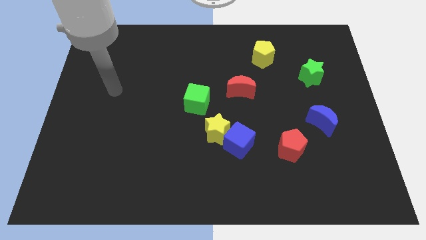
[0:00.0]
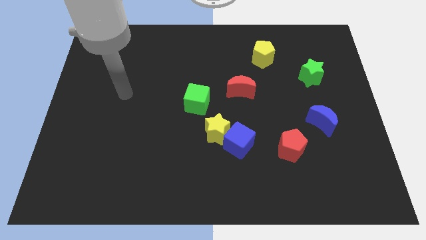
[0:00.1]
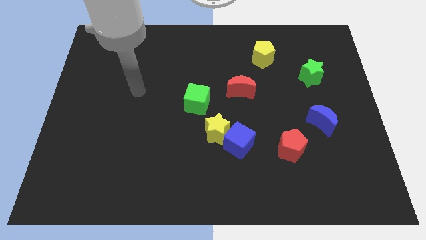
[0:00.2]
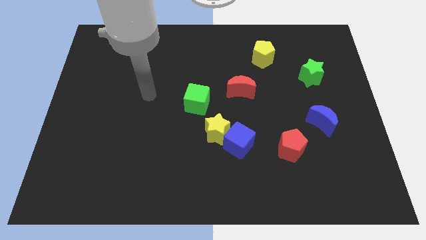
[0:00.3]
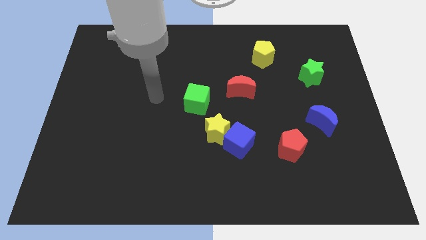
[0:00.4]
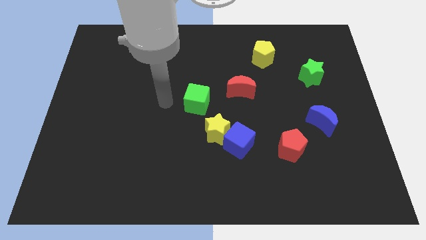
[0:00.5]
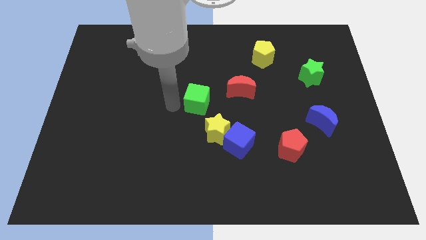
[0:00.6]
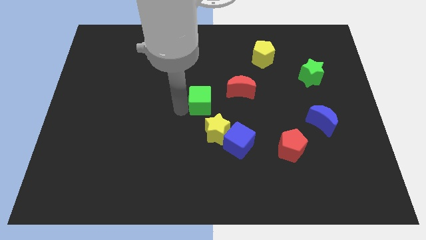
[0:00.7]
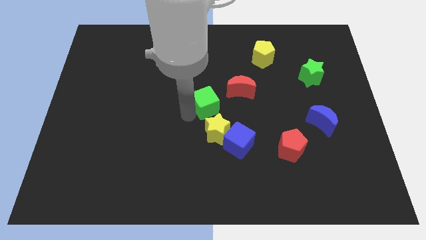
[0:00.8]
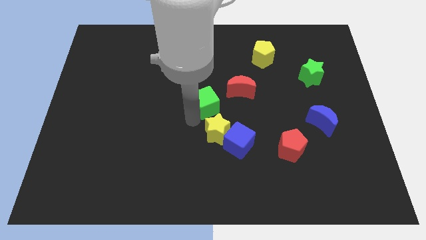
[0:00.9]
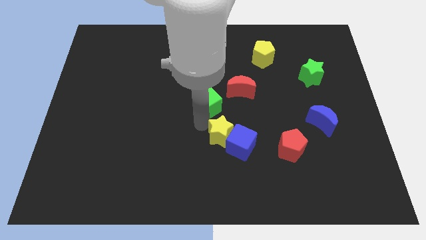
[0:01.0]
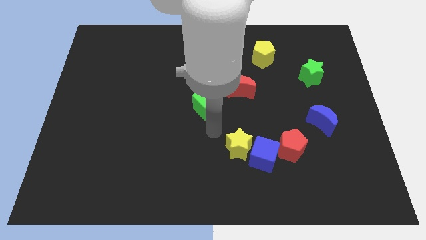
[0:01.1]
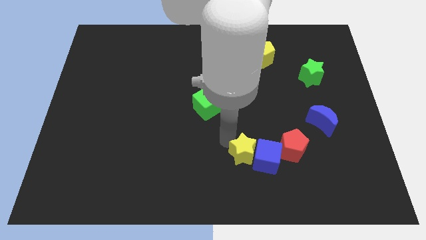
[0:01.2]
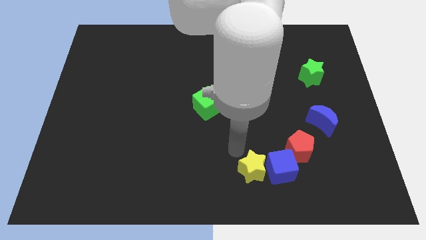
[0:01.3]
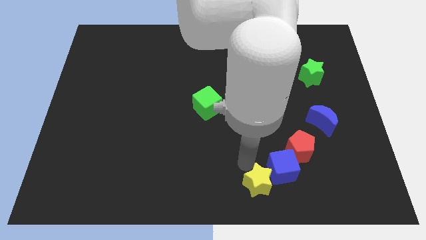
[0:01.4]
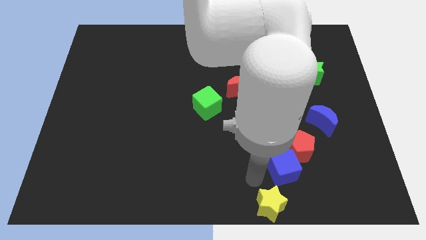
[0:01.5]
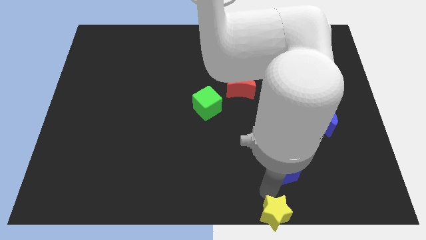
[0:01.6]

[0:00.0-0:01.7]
pull the blue cube apart from the yellow star

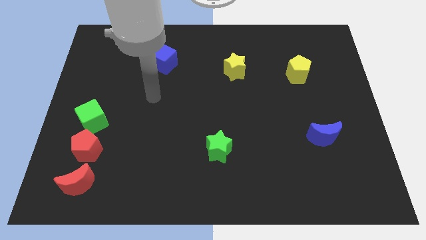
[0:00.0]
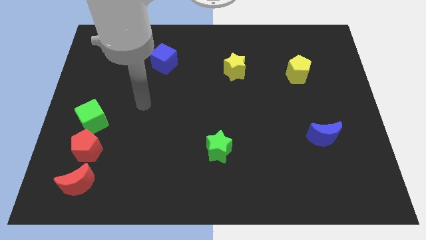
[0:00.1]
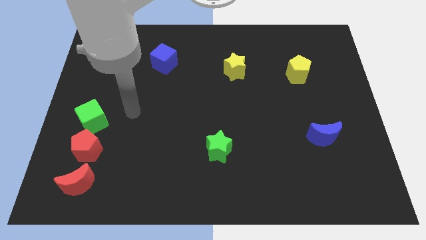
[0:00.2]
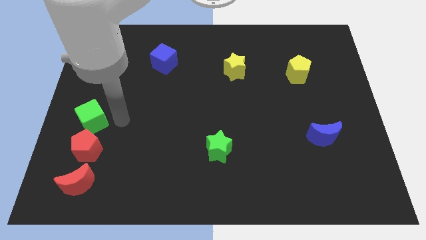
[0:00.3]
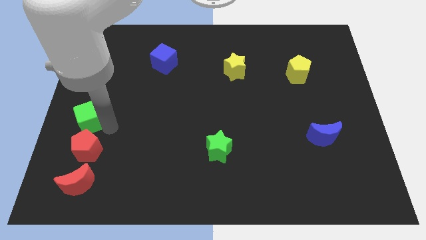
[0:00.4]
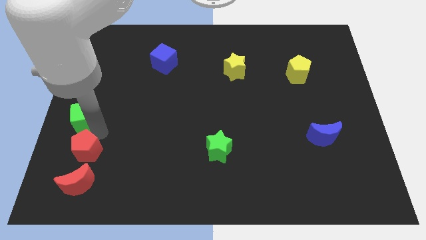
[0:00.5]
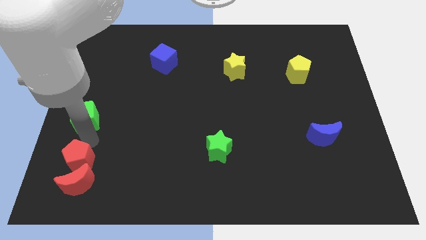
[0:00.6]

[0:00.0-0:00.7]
pull the green cube apart from the red pentagon

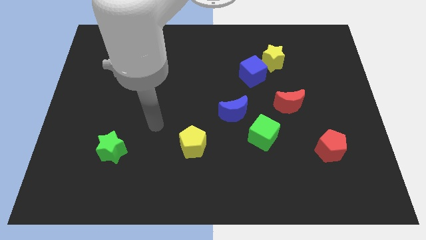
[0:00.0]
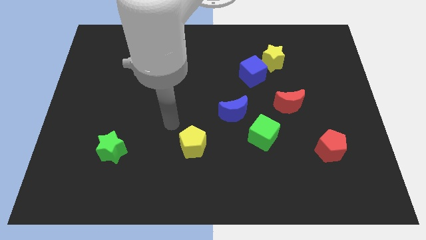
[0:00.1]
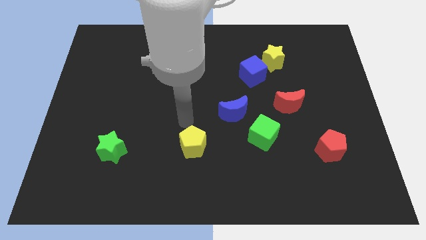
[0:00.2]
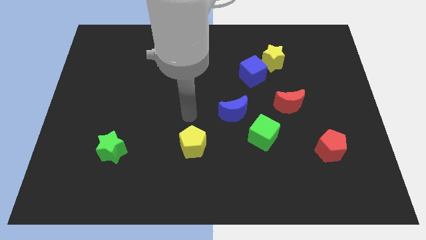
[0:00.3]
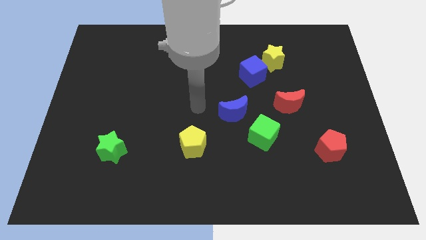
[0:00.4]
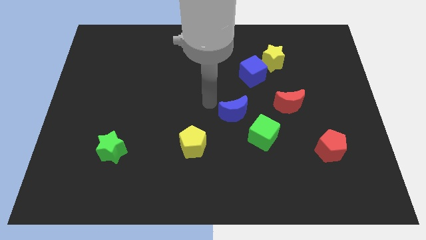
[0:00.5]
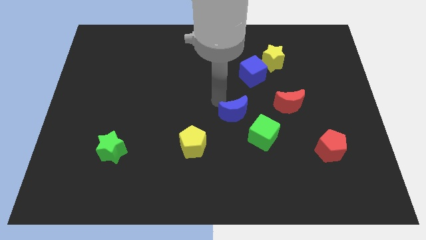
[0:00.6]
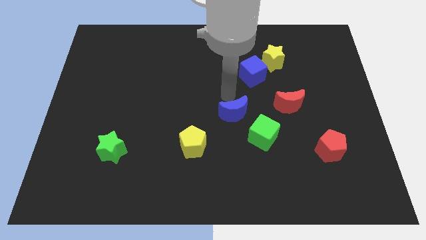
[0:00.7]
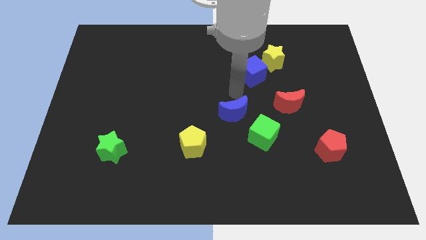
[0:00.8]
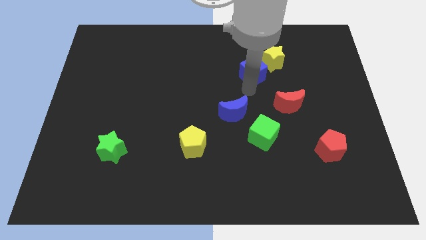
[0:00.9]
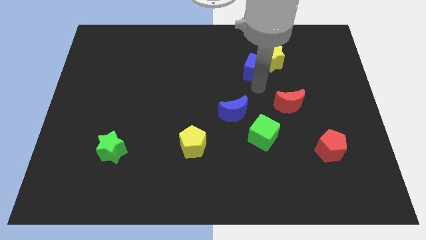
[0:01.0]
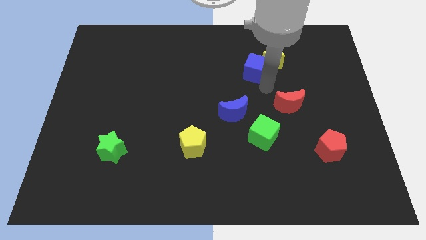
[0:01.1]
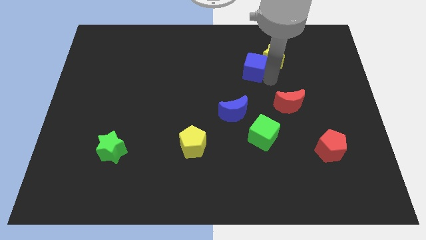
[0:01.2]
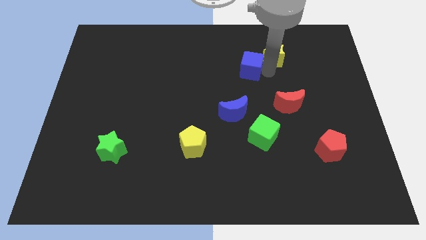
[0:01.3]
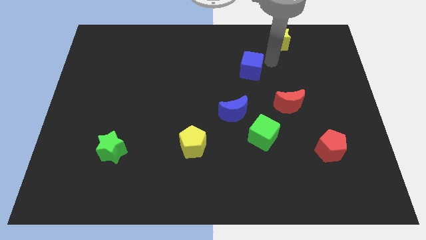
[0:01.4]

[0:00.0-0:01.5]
separate the blue cube from the yellow star

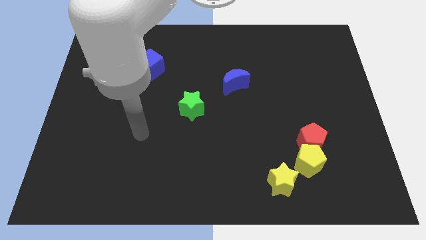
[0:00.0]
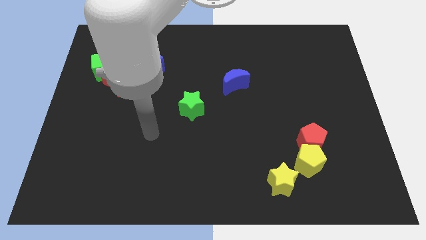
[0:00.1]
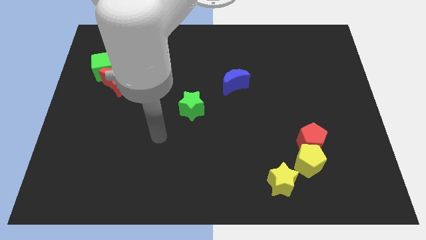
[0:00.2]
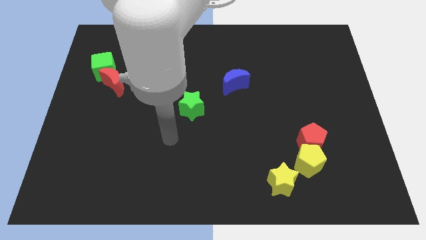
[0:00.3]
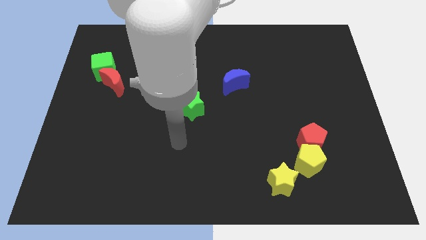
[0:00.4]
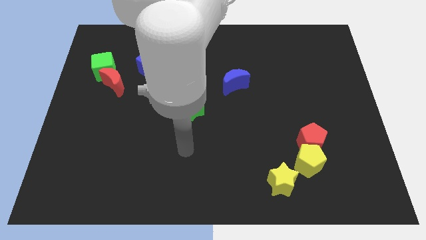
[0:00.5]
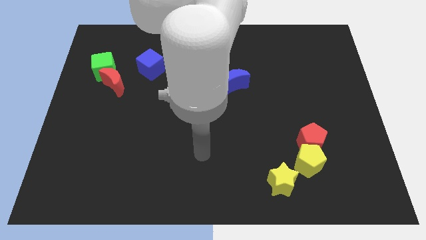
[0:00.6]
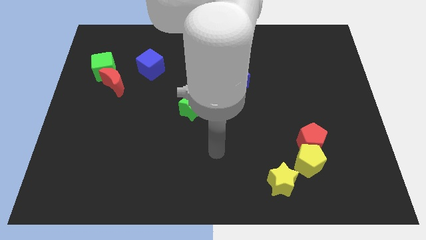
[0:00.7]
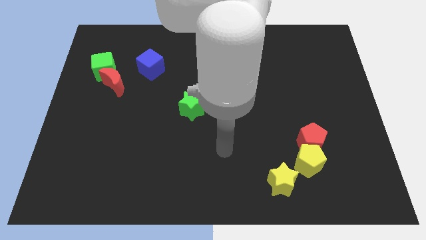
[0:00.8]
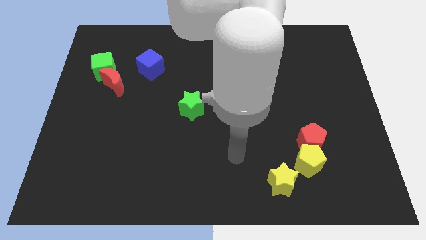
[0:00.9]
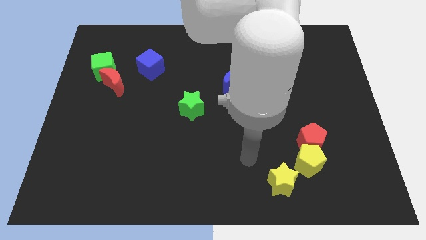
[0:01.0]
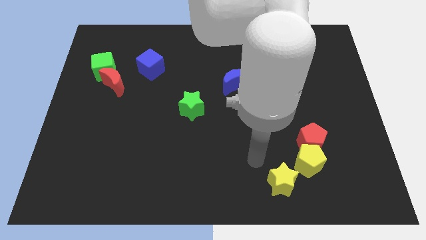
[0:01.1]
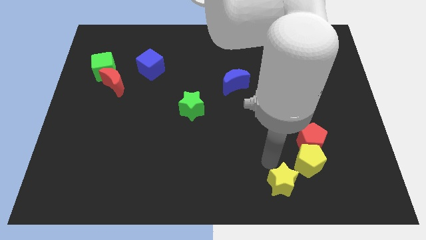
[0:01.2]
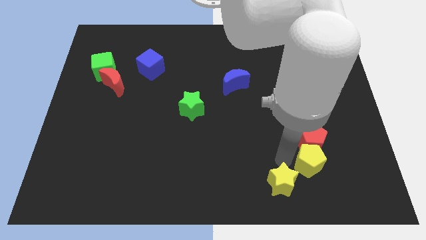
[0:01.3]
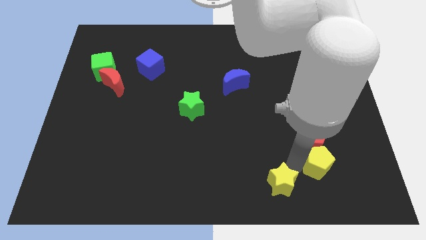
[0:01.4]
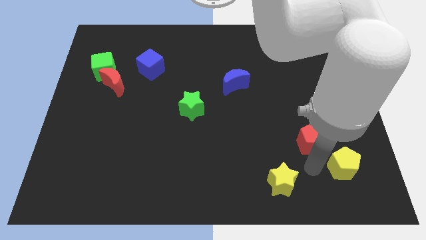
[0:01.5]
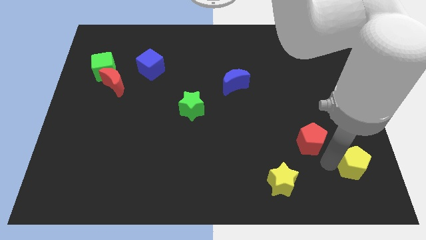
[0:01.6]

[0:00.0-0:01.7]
separate the red pentagon from the yellow pentagon

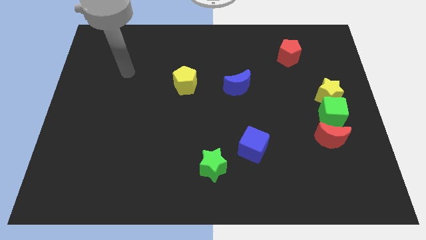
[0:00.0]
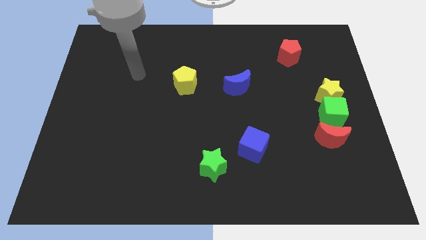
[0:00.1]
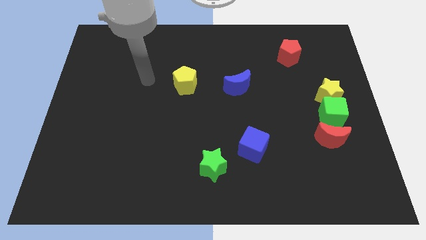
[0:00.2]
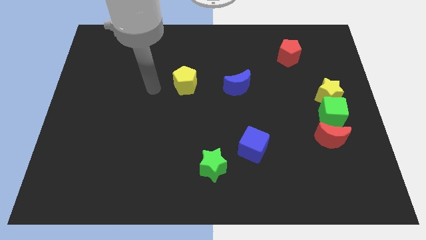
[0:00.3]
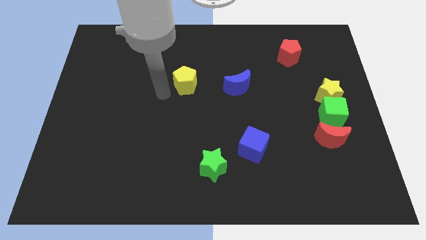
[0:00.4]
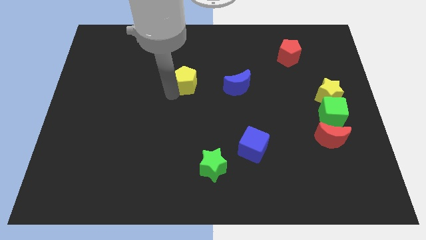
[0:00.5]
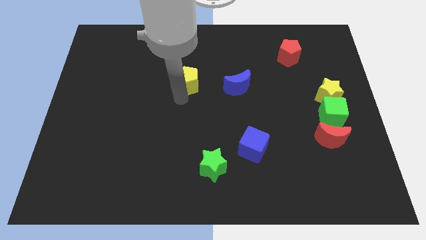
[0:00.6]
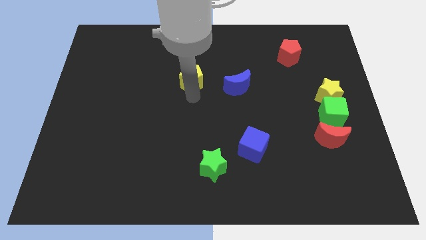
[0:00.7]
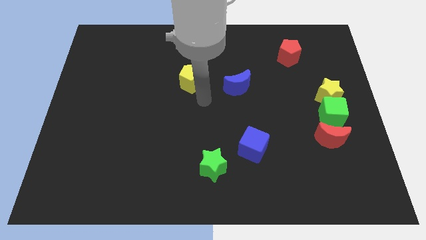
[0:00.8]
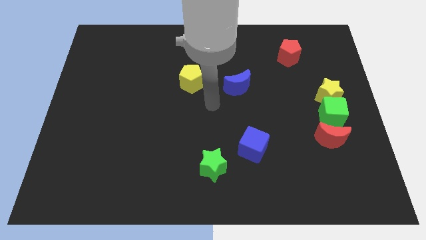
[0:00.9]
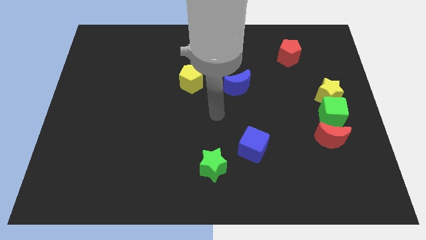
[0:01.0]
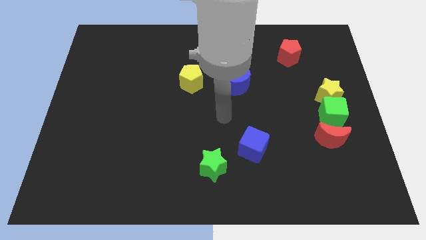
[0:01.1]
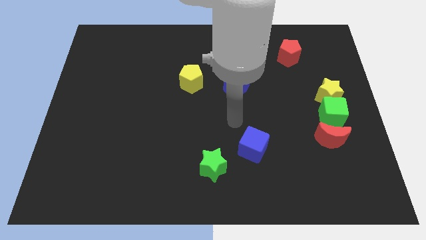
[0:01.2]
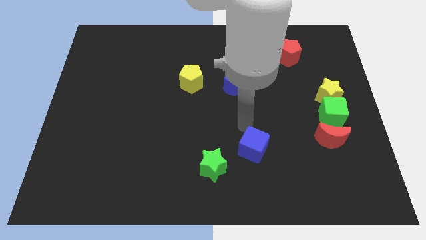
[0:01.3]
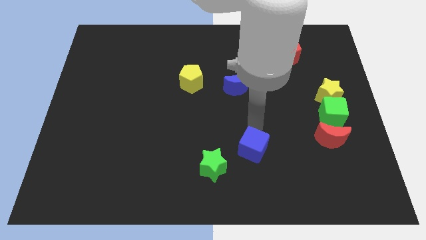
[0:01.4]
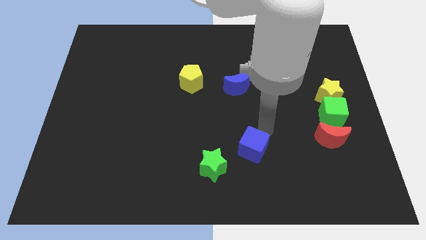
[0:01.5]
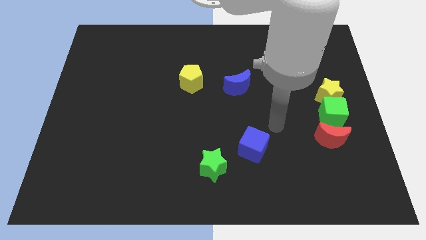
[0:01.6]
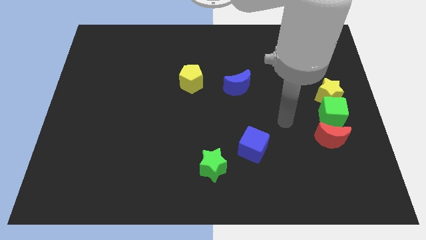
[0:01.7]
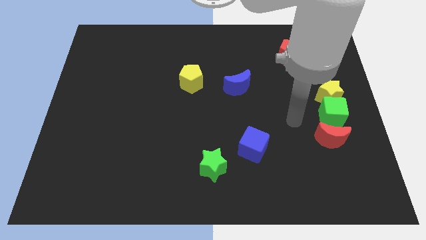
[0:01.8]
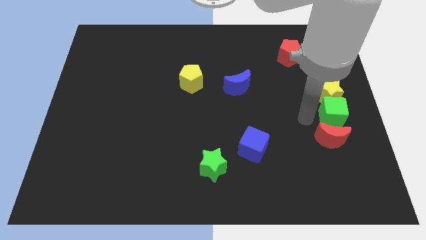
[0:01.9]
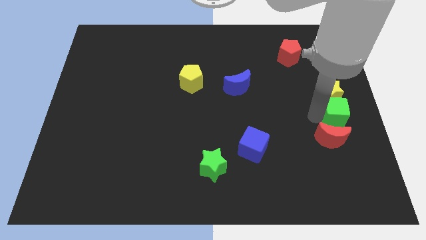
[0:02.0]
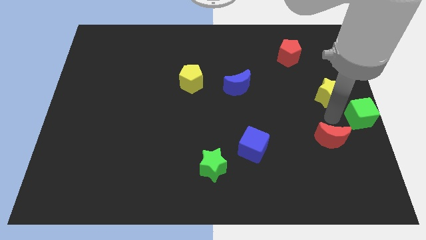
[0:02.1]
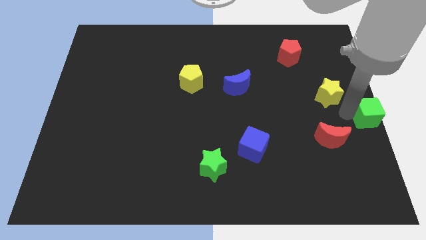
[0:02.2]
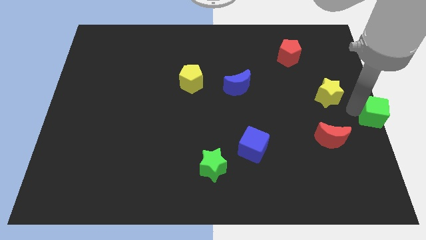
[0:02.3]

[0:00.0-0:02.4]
separate the yellow star from the green cube

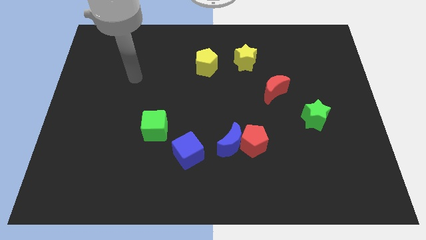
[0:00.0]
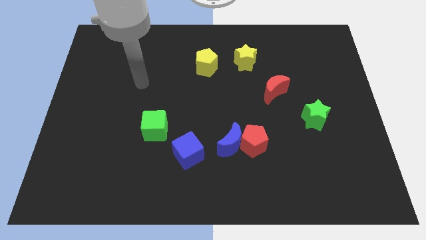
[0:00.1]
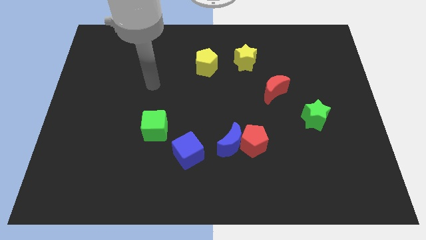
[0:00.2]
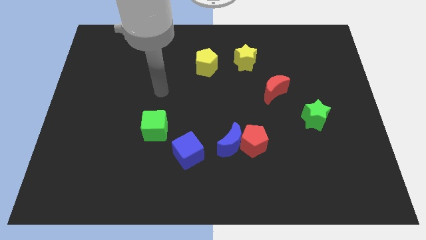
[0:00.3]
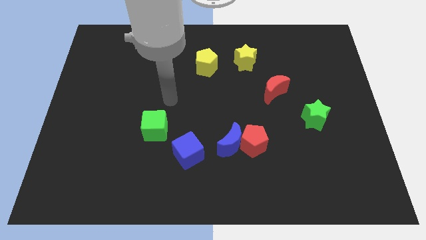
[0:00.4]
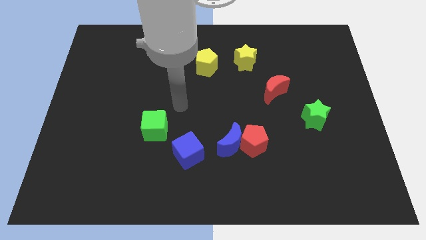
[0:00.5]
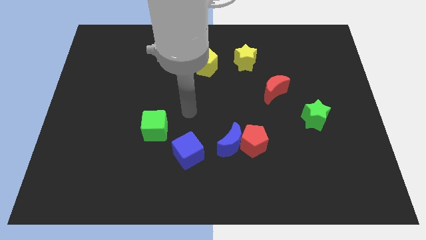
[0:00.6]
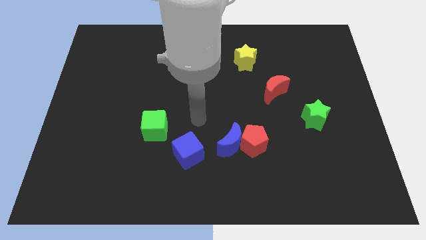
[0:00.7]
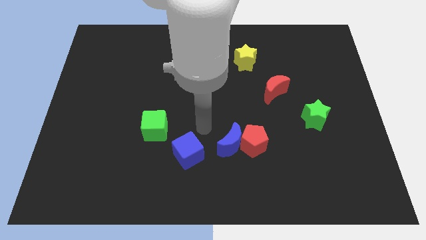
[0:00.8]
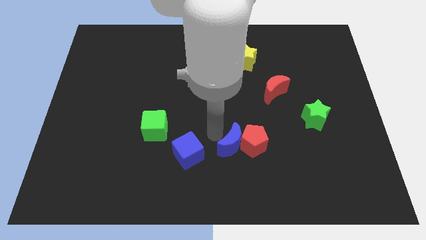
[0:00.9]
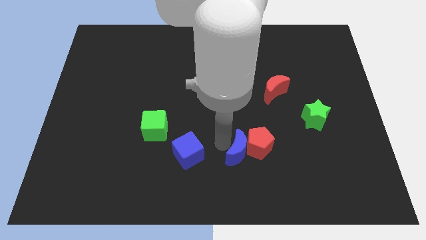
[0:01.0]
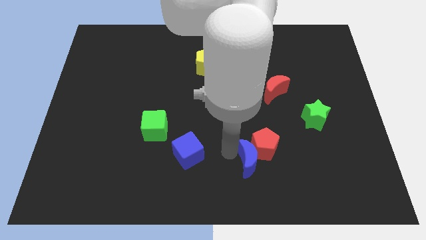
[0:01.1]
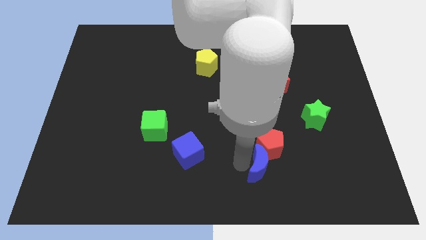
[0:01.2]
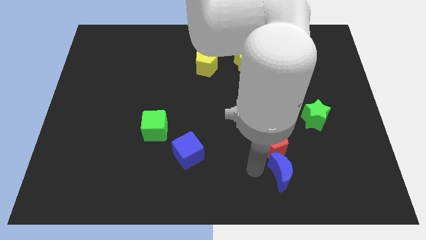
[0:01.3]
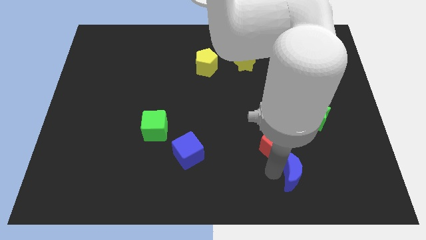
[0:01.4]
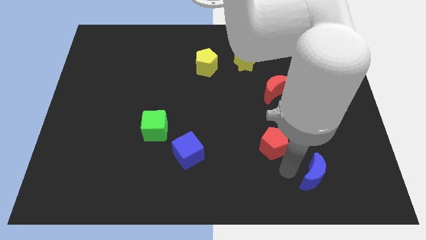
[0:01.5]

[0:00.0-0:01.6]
move the red pentagon away from the blue moon
